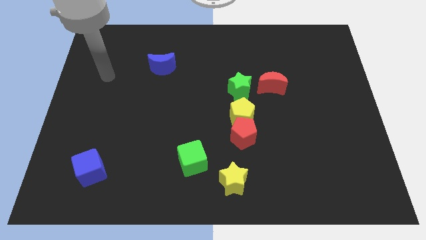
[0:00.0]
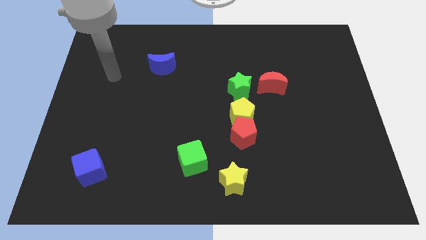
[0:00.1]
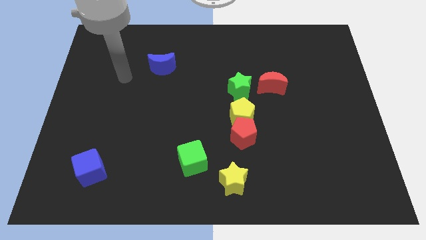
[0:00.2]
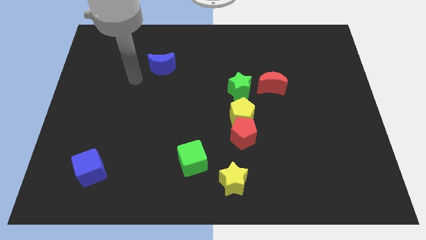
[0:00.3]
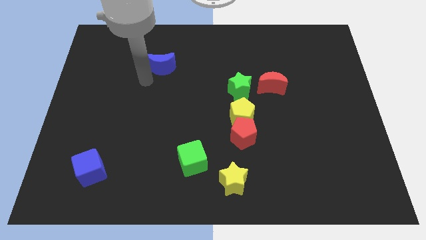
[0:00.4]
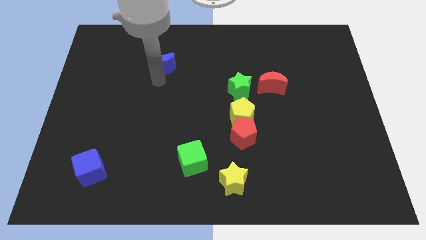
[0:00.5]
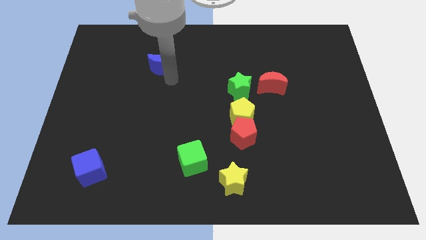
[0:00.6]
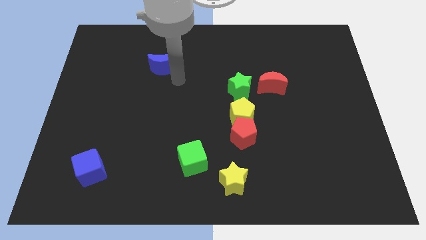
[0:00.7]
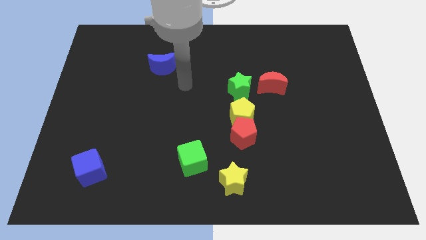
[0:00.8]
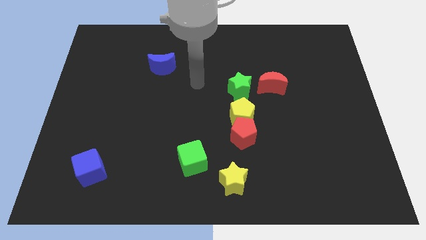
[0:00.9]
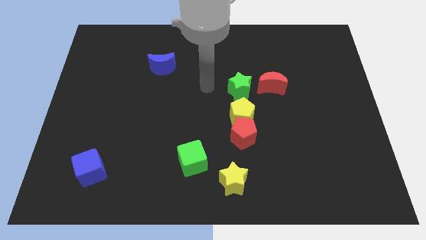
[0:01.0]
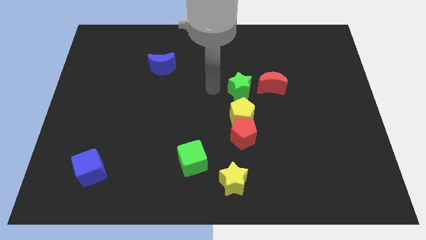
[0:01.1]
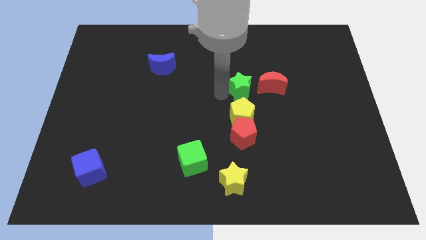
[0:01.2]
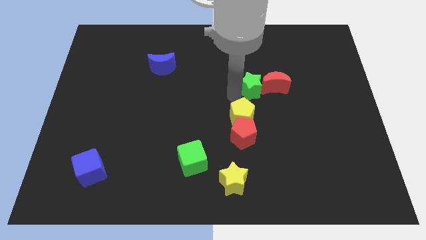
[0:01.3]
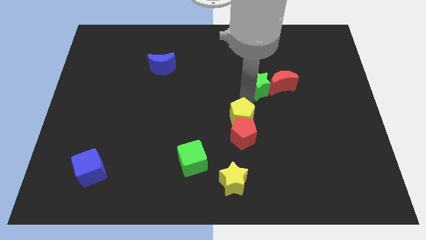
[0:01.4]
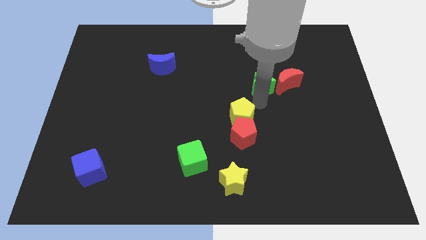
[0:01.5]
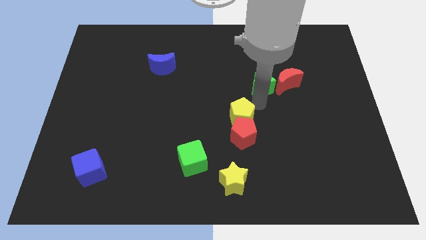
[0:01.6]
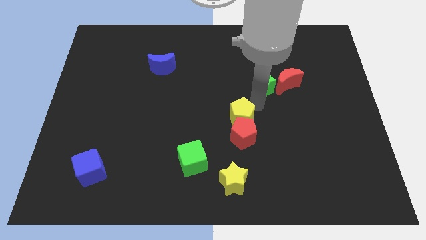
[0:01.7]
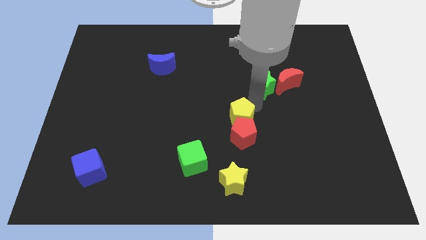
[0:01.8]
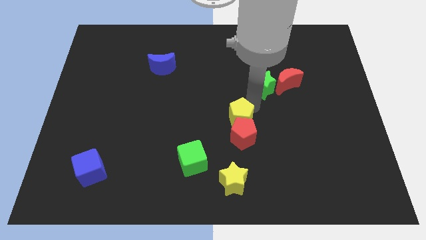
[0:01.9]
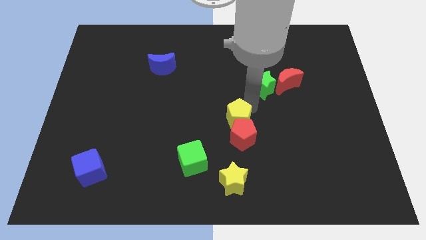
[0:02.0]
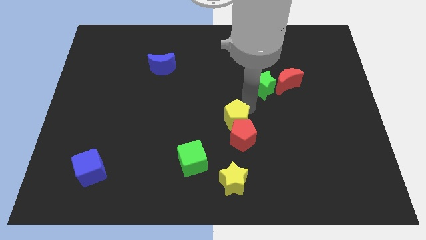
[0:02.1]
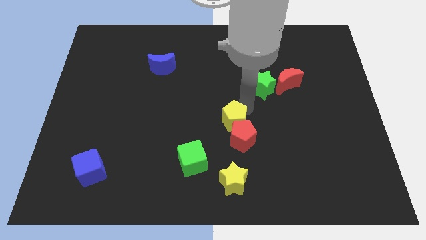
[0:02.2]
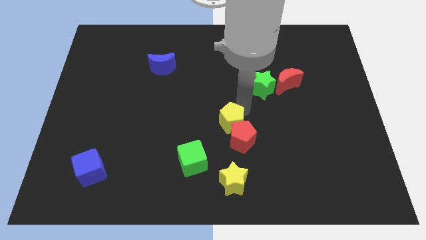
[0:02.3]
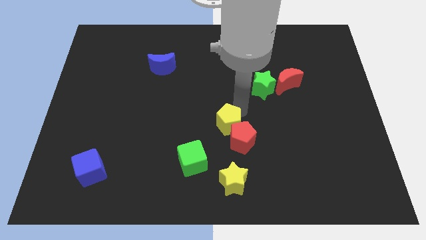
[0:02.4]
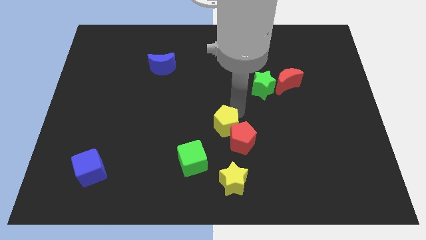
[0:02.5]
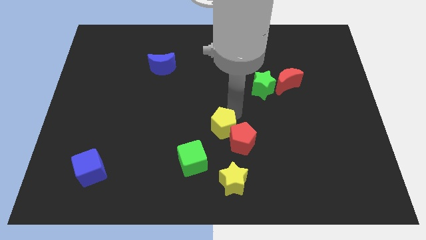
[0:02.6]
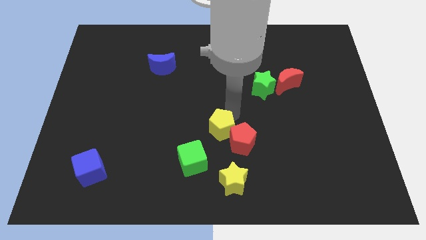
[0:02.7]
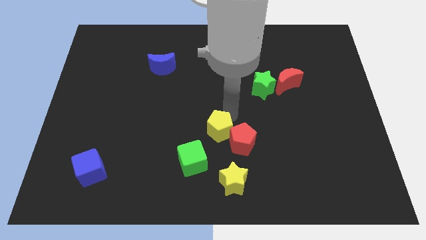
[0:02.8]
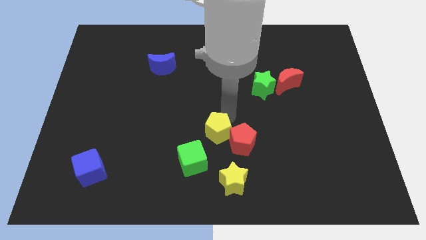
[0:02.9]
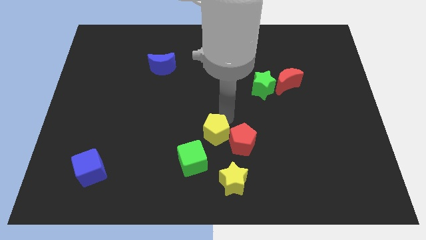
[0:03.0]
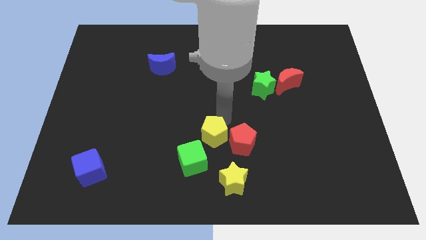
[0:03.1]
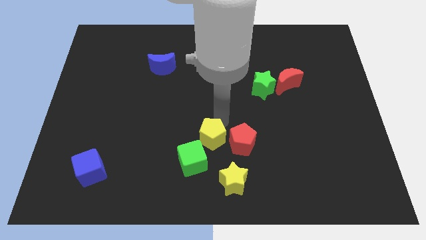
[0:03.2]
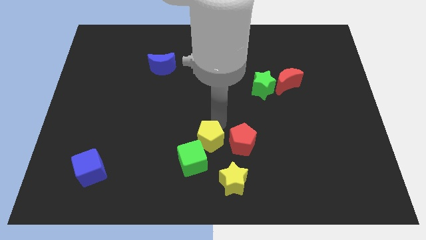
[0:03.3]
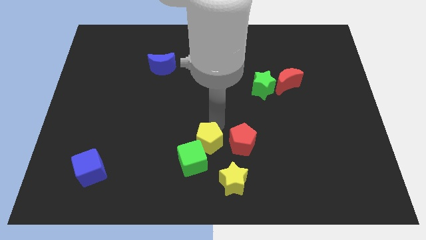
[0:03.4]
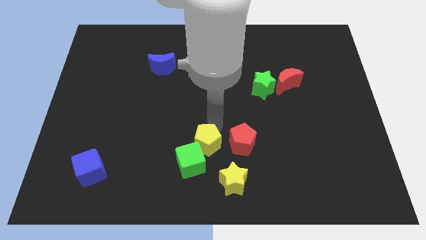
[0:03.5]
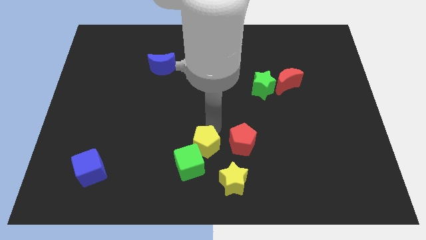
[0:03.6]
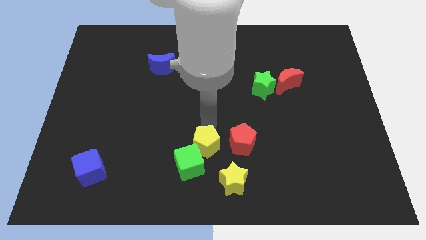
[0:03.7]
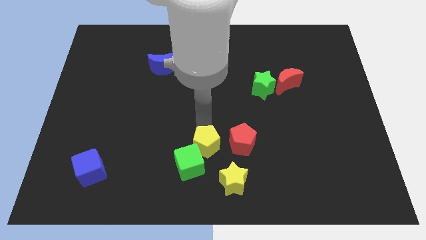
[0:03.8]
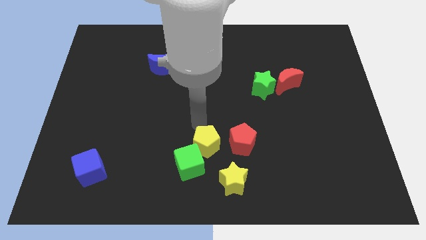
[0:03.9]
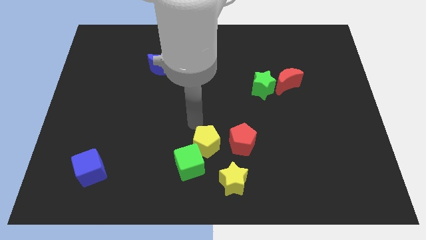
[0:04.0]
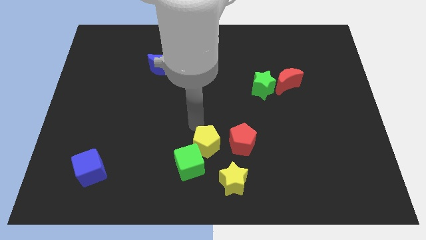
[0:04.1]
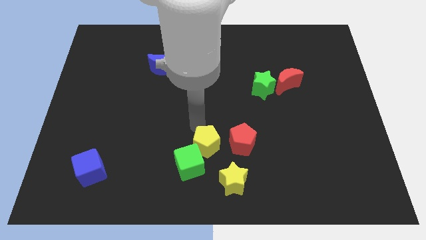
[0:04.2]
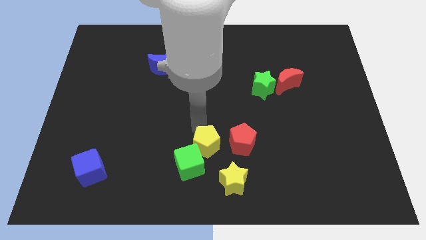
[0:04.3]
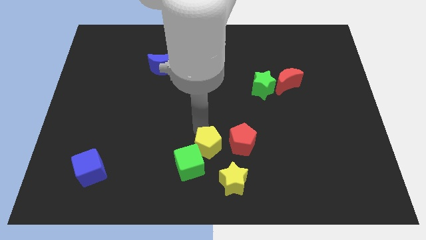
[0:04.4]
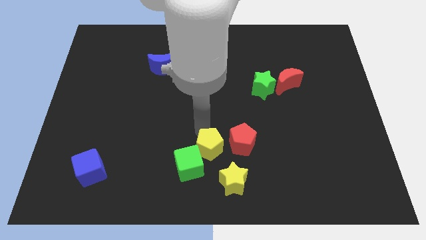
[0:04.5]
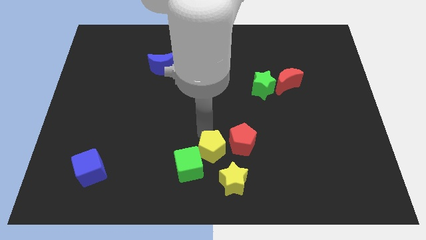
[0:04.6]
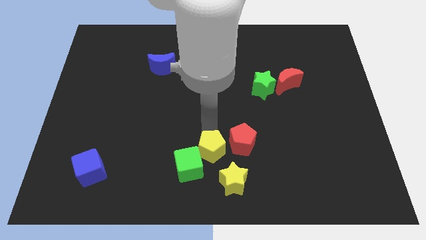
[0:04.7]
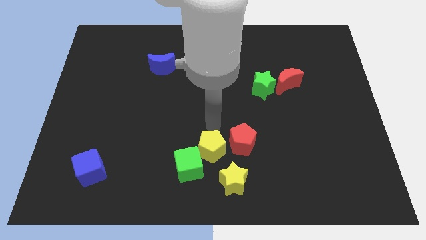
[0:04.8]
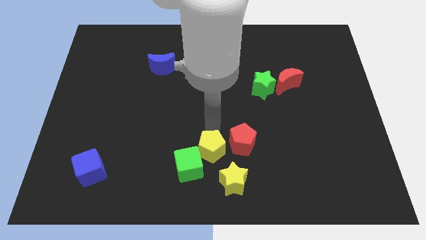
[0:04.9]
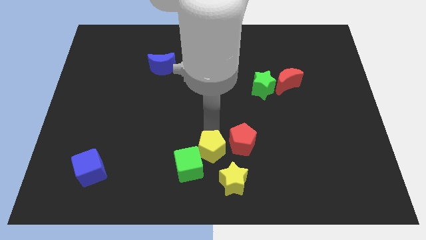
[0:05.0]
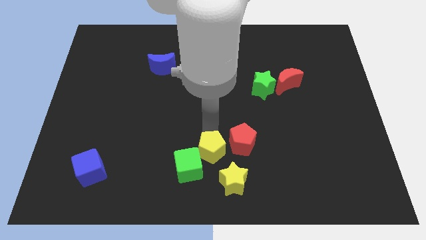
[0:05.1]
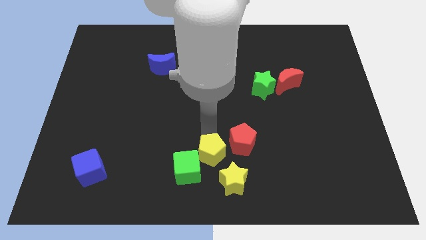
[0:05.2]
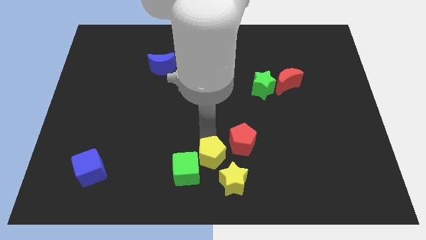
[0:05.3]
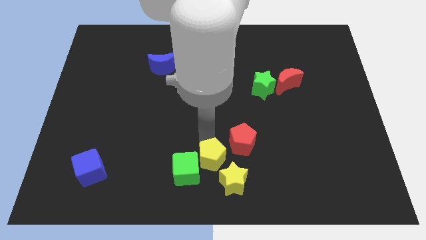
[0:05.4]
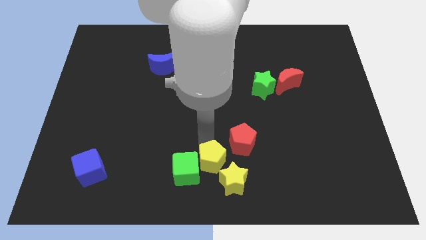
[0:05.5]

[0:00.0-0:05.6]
move the yellow pentagon to the left of the yellow star

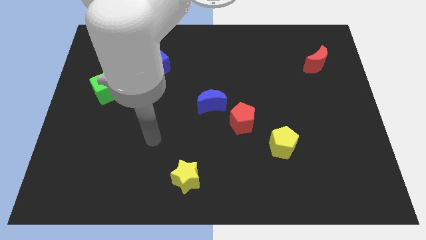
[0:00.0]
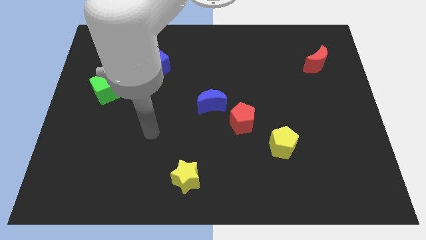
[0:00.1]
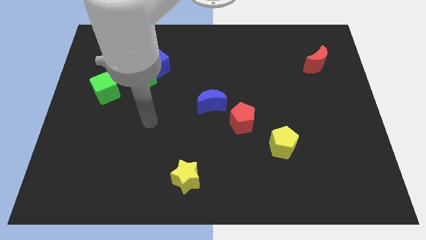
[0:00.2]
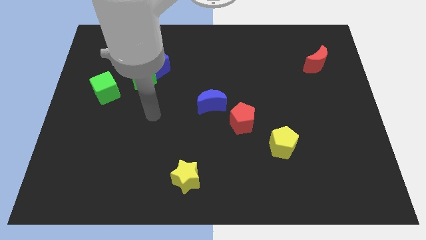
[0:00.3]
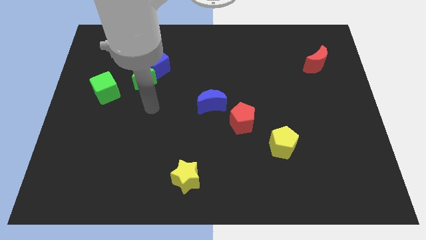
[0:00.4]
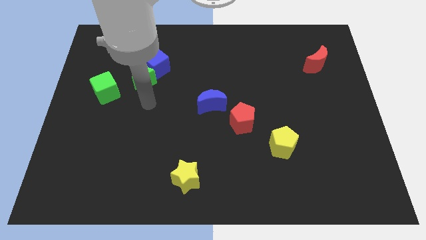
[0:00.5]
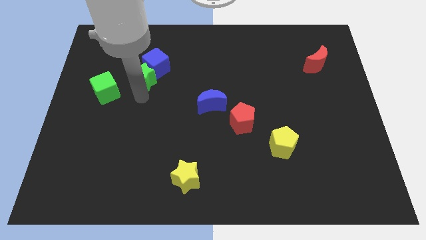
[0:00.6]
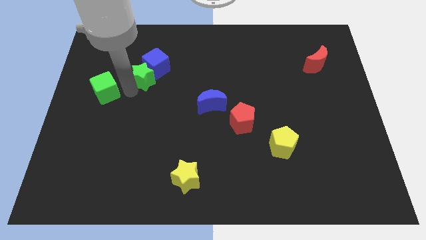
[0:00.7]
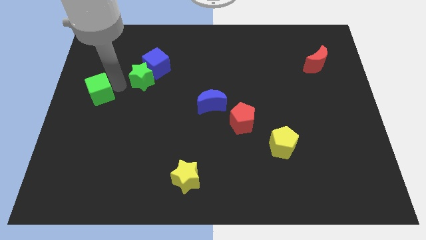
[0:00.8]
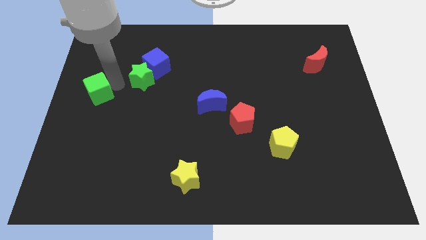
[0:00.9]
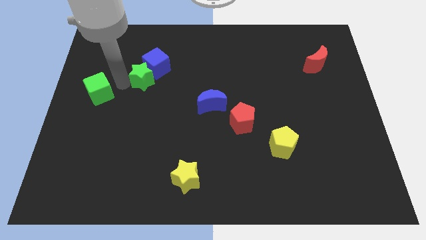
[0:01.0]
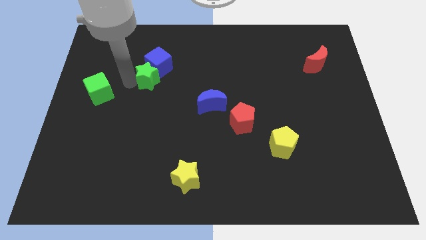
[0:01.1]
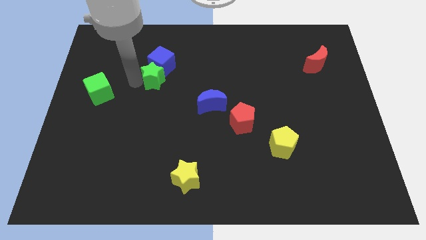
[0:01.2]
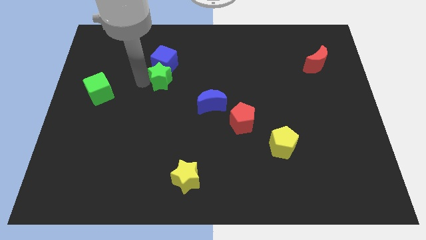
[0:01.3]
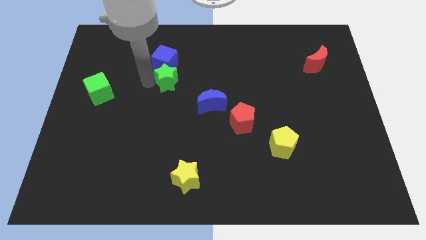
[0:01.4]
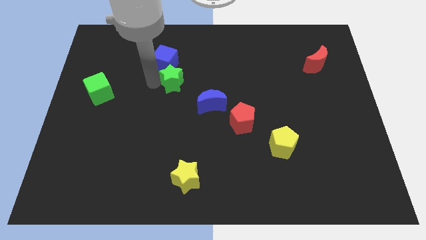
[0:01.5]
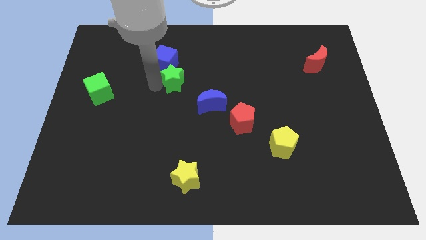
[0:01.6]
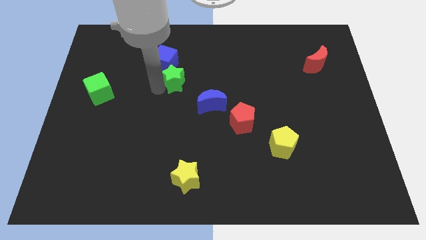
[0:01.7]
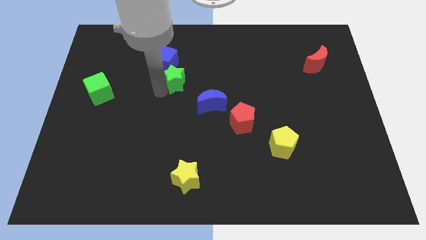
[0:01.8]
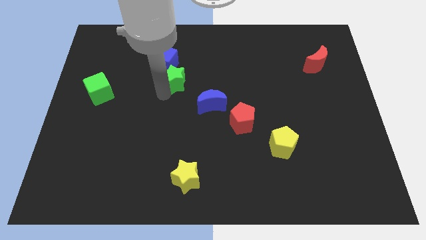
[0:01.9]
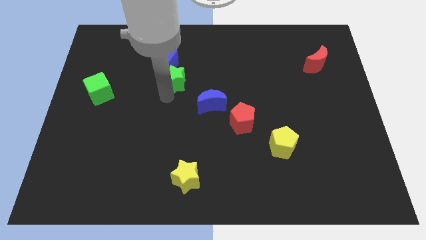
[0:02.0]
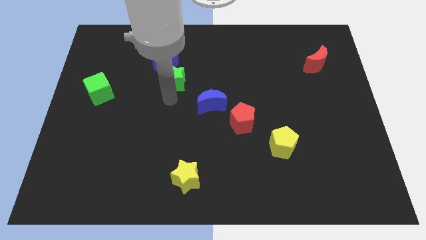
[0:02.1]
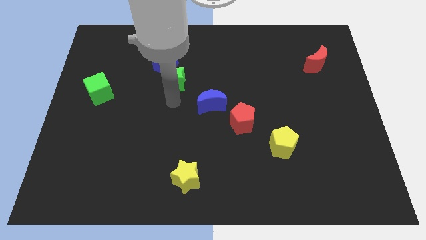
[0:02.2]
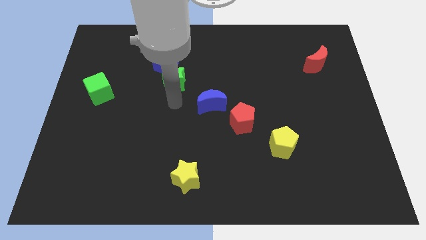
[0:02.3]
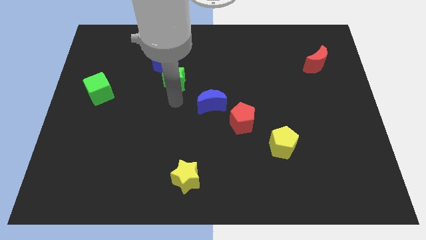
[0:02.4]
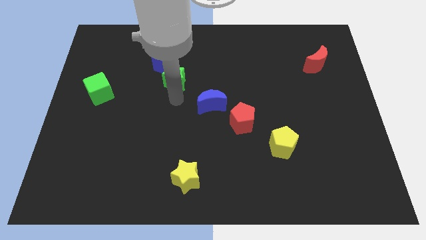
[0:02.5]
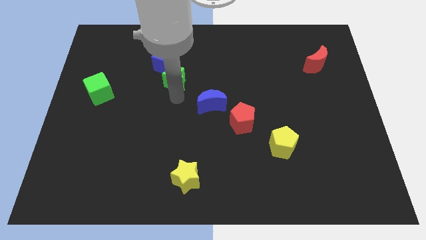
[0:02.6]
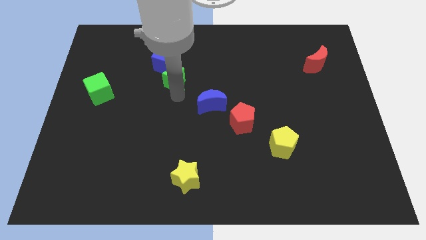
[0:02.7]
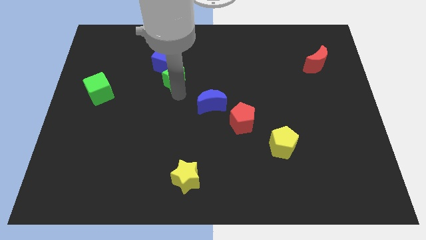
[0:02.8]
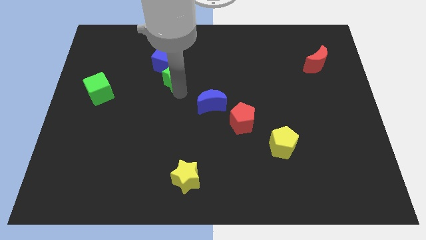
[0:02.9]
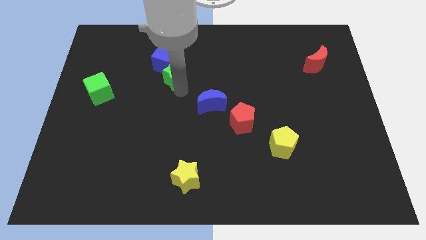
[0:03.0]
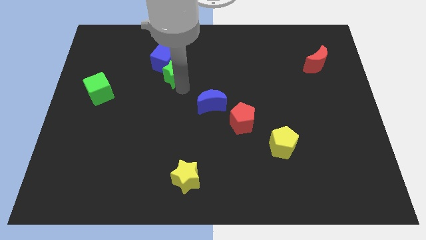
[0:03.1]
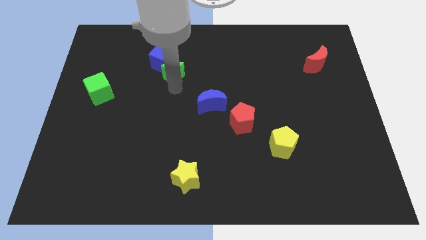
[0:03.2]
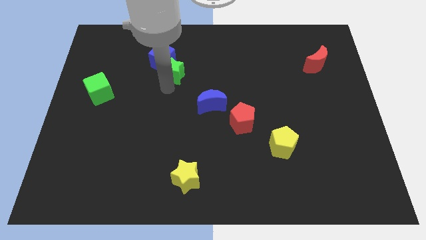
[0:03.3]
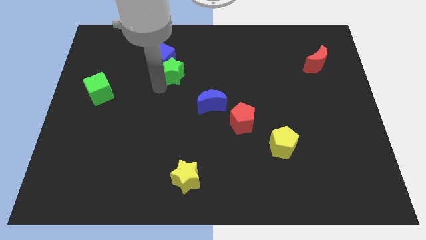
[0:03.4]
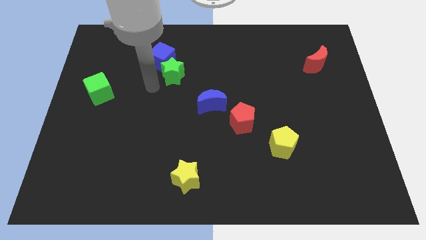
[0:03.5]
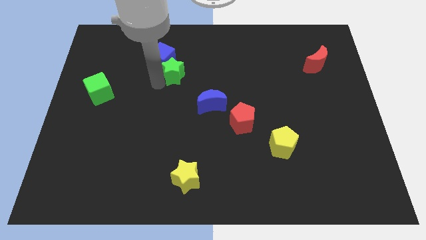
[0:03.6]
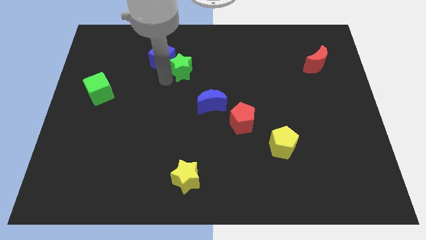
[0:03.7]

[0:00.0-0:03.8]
put the green star just right of the blue cube
